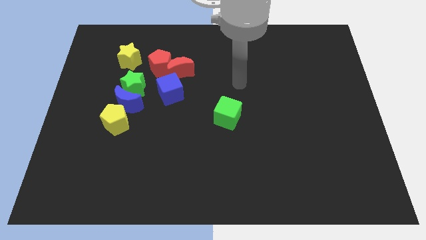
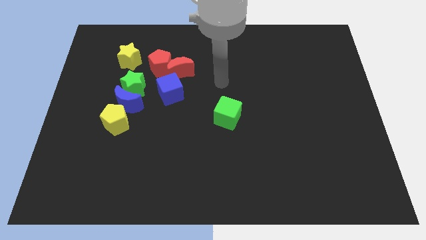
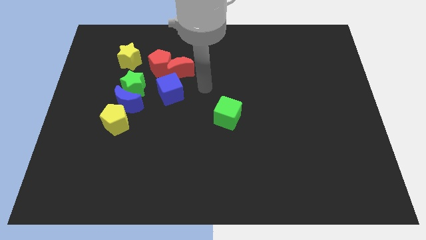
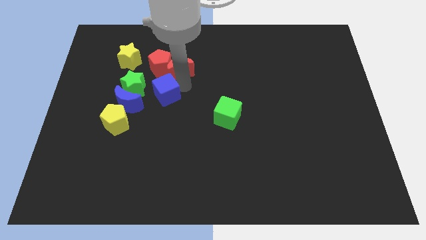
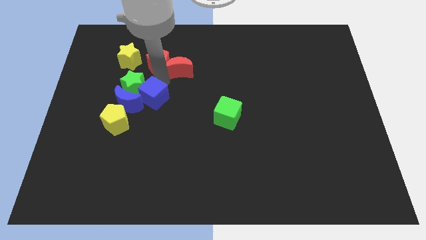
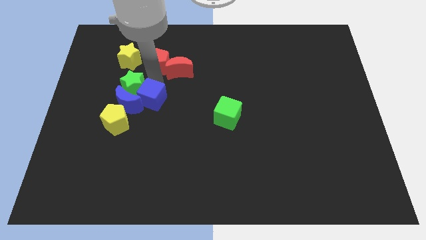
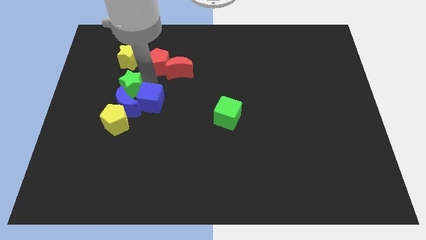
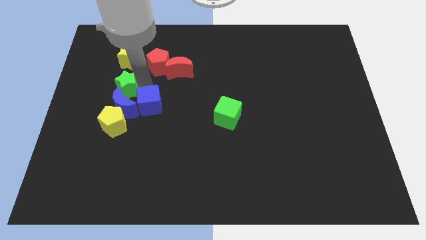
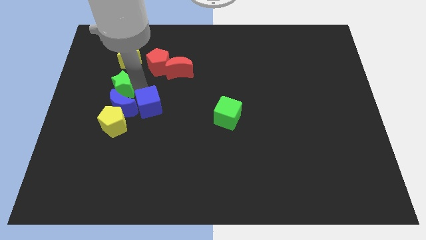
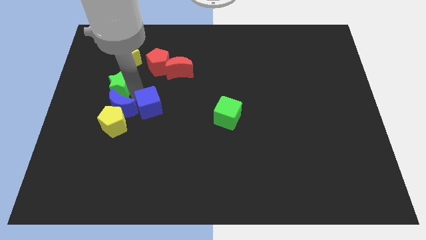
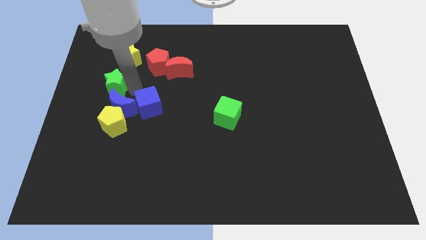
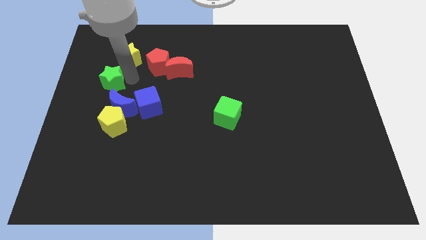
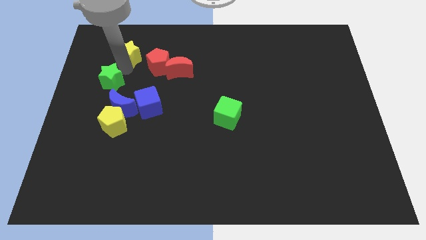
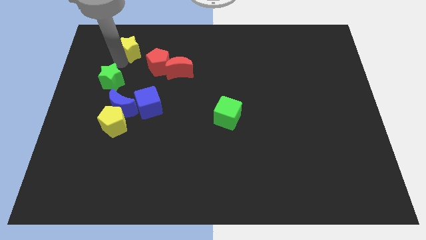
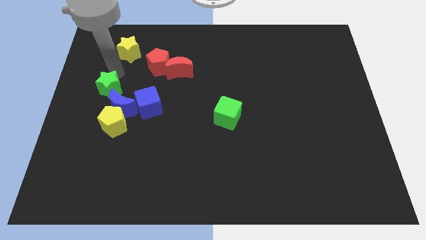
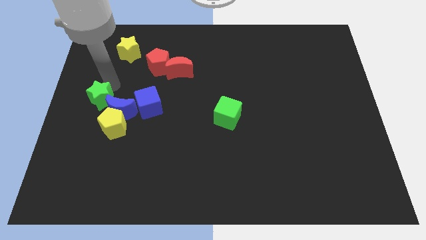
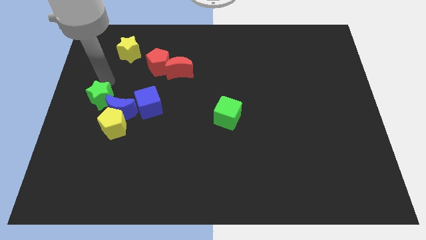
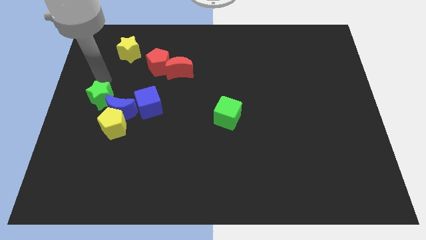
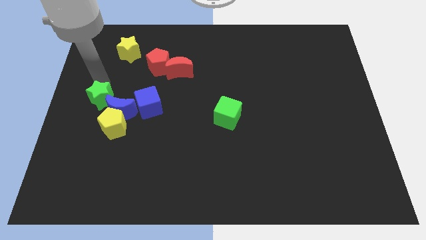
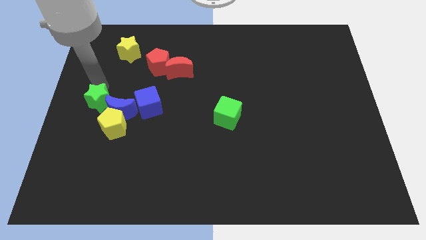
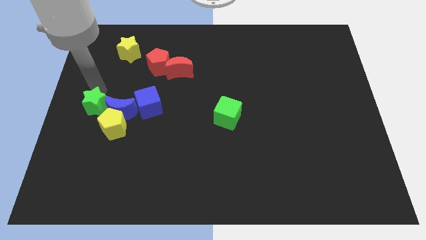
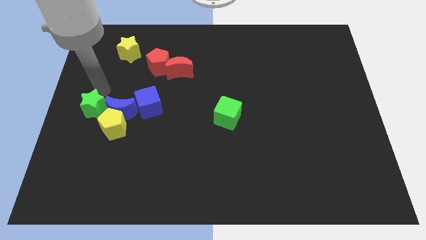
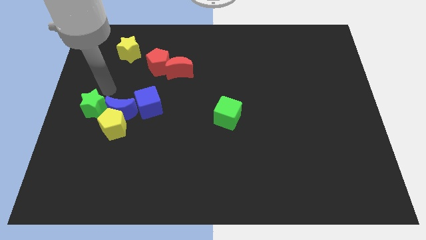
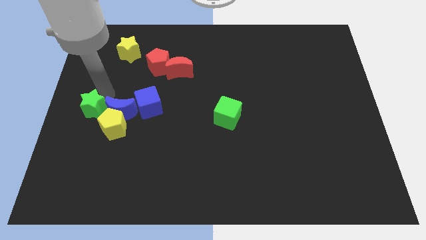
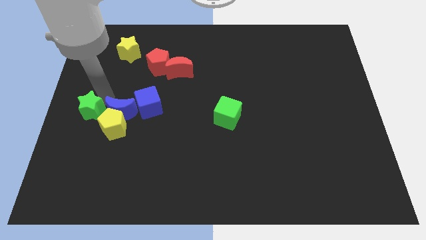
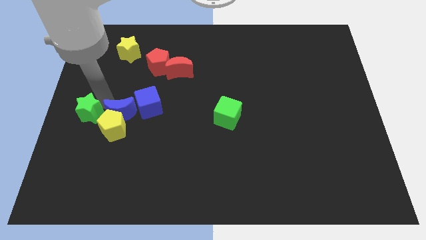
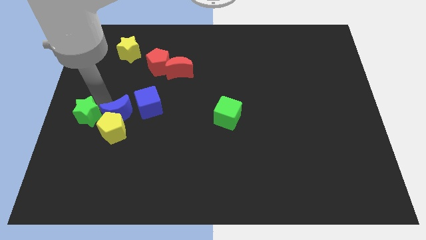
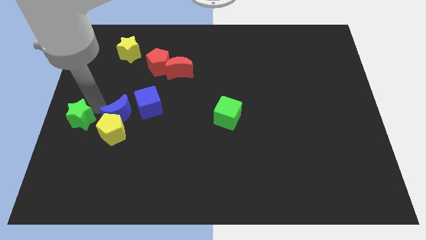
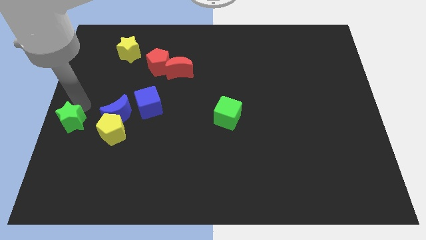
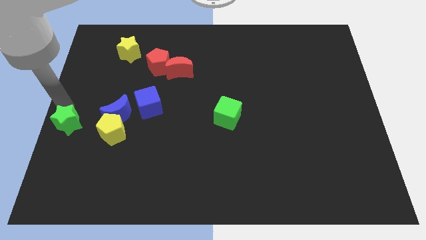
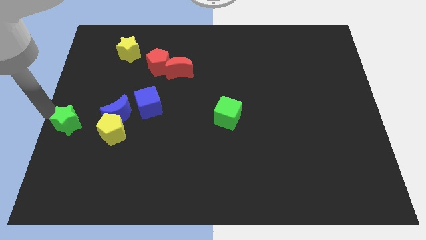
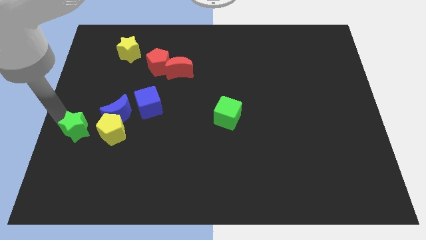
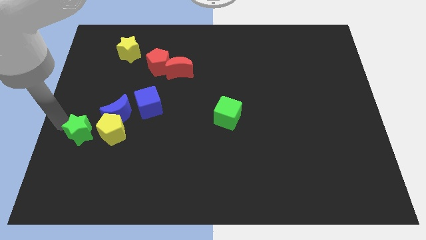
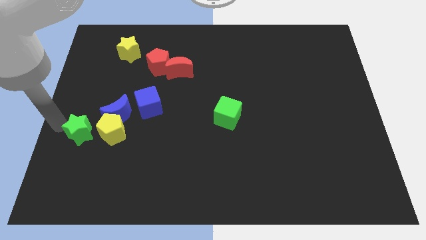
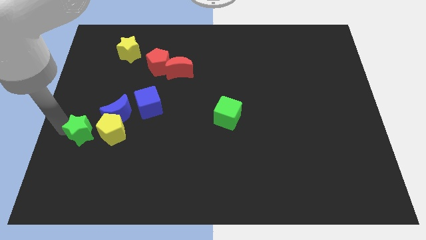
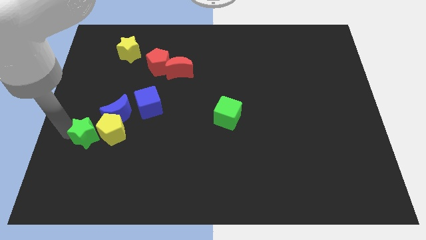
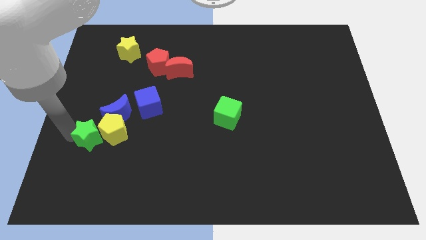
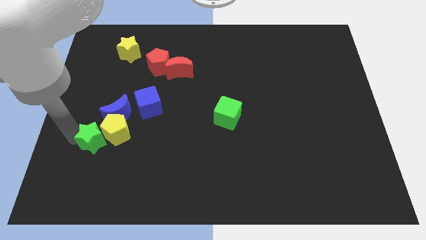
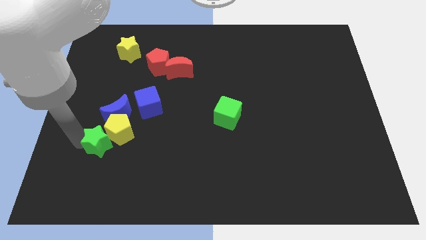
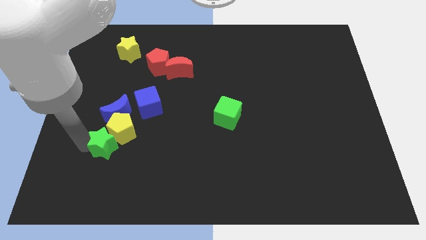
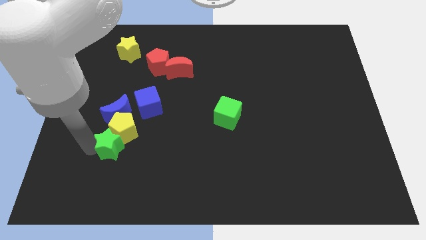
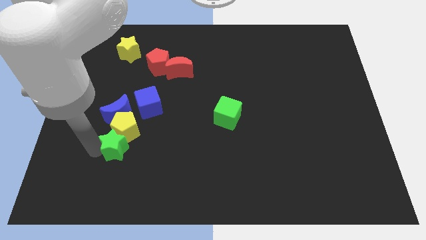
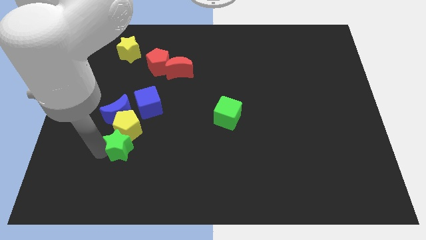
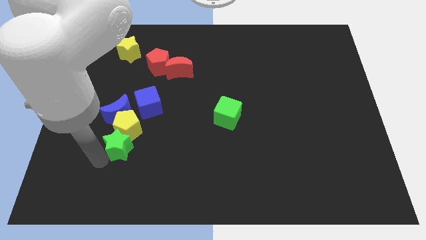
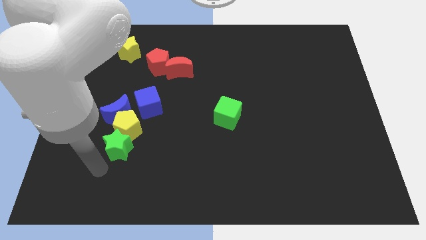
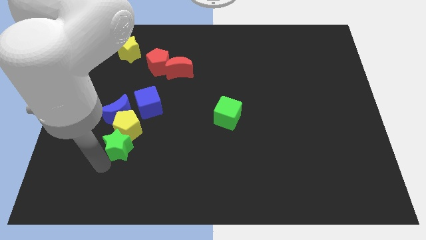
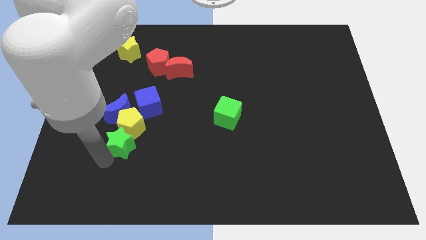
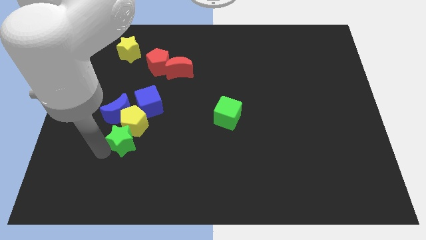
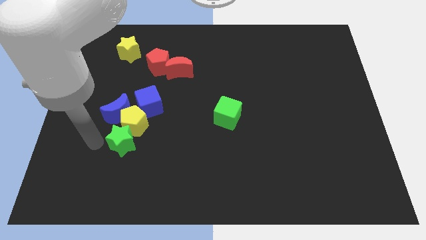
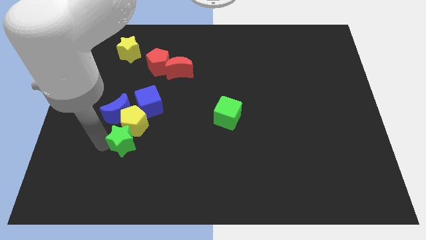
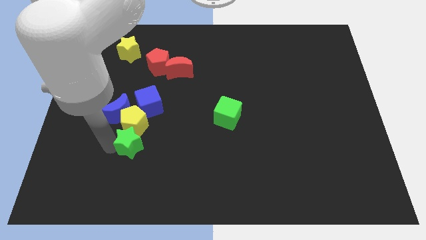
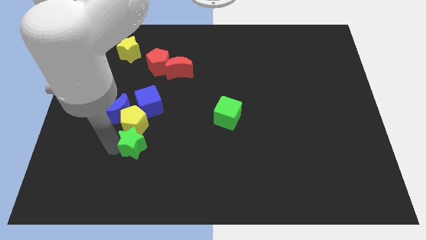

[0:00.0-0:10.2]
move the green star a bit diagonally down and right

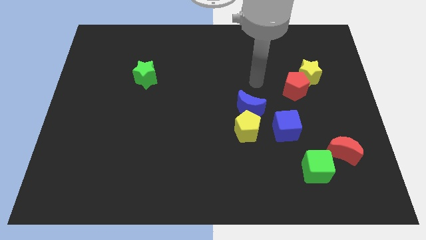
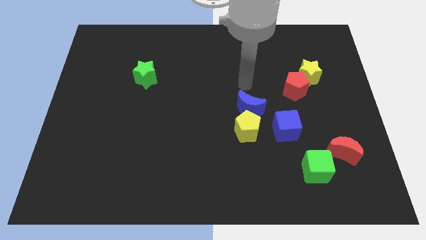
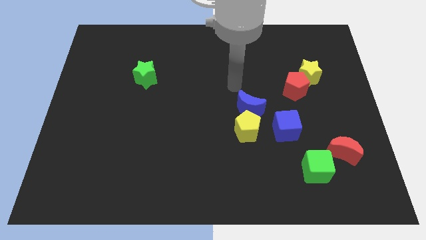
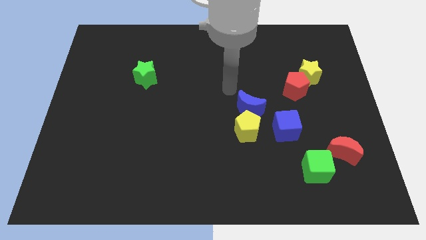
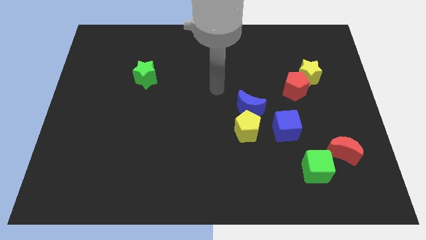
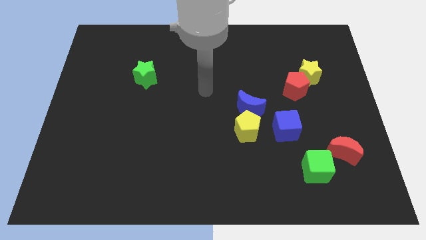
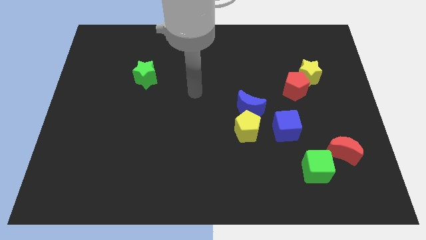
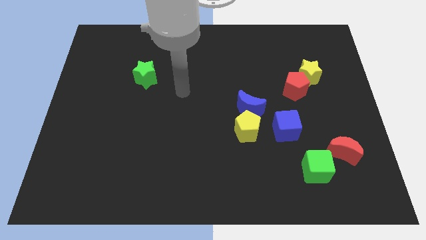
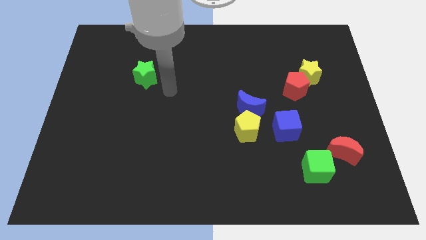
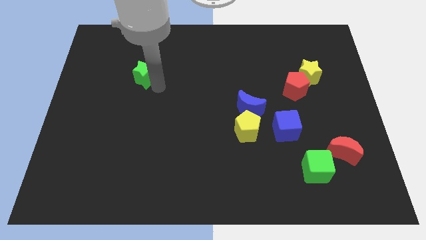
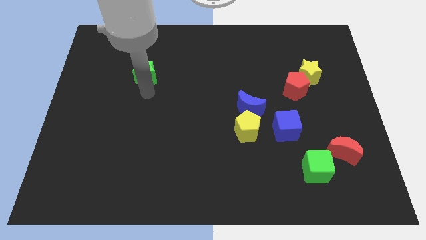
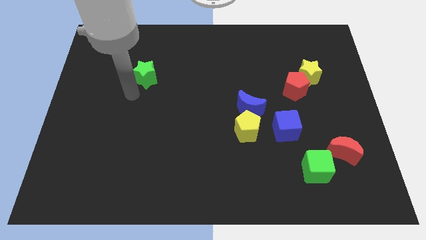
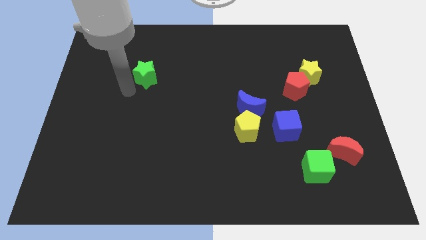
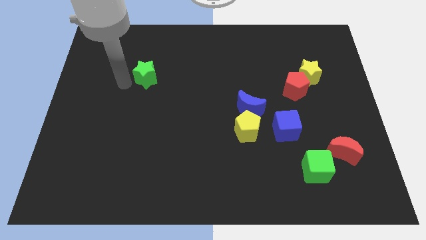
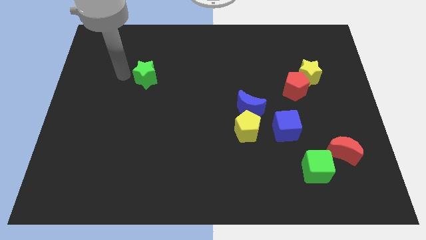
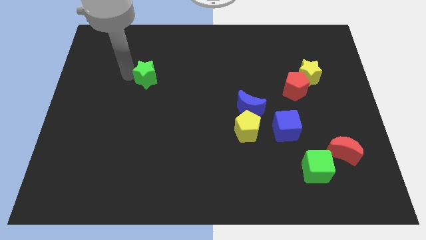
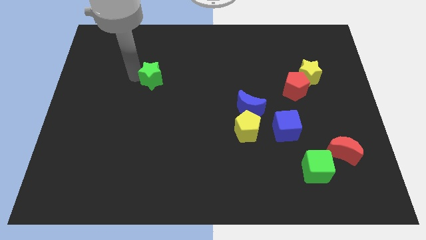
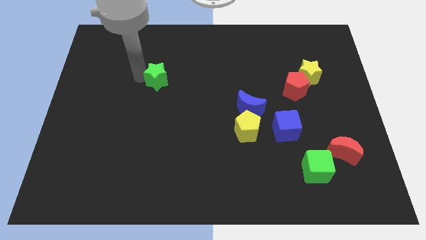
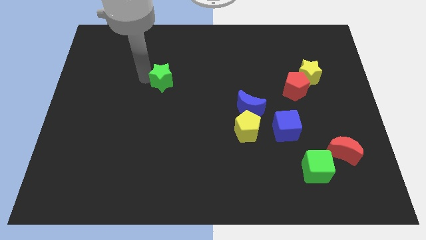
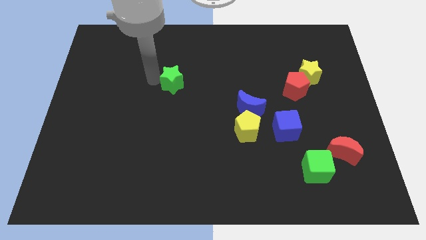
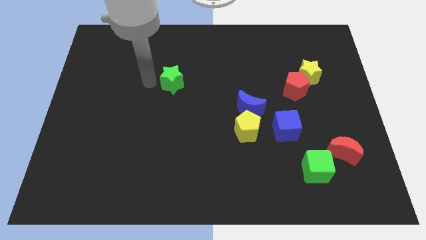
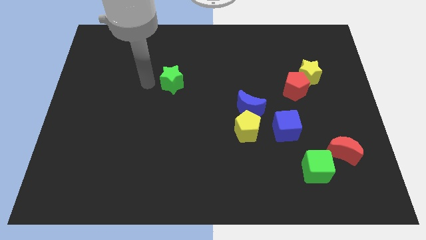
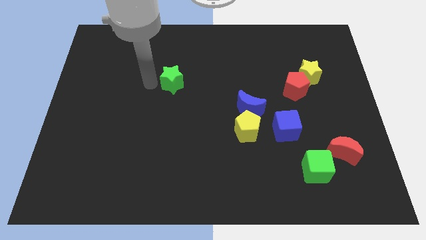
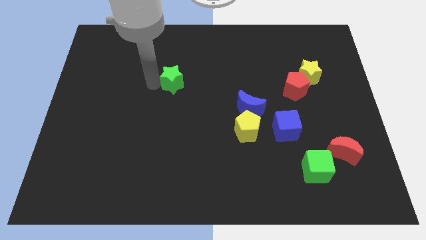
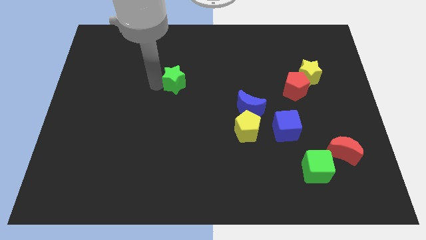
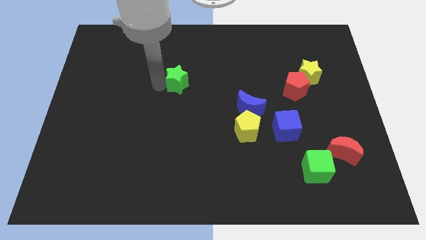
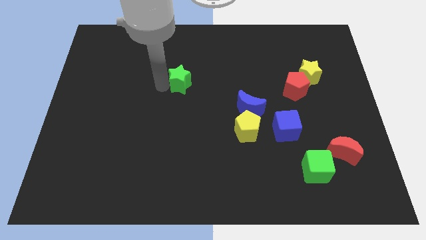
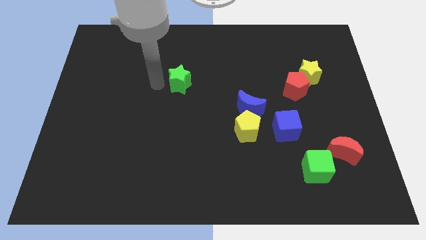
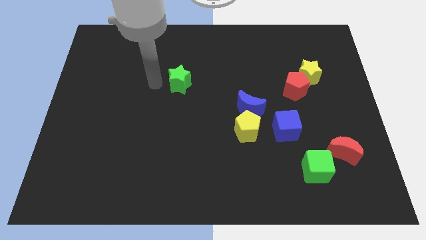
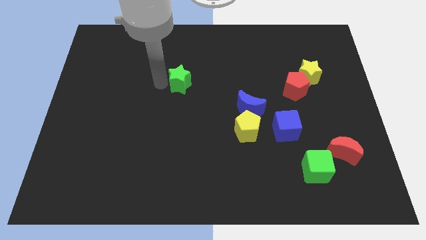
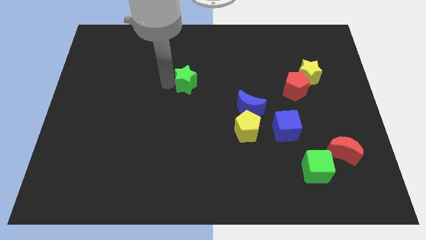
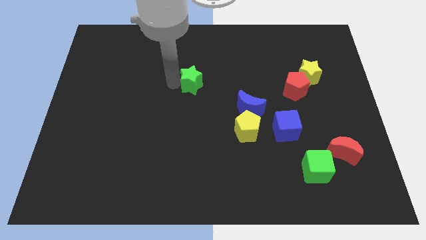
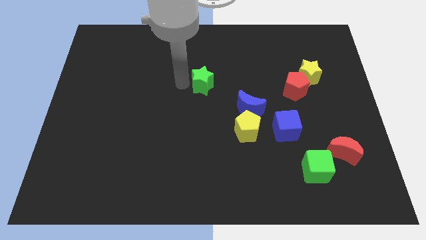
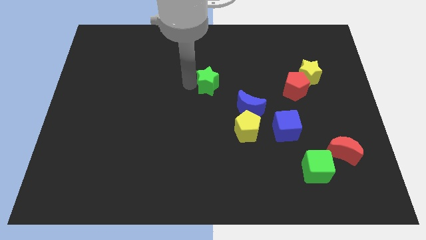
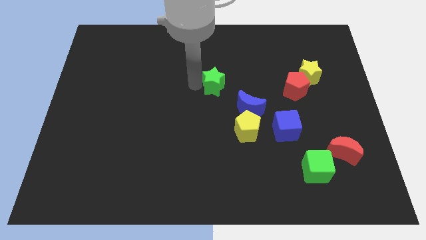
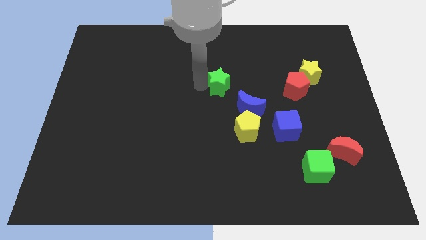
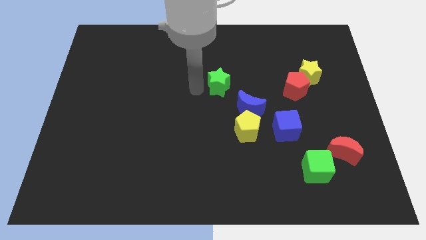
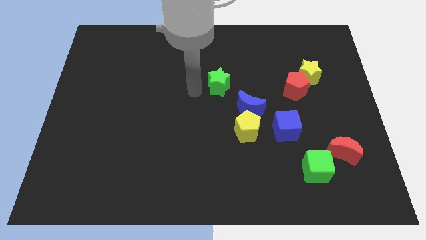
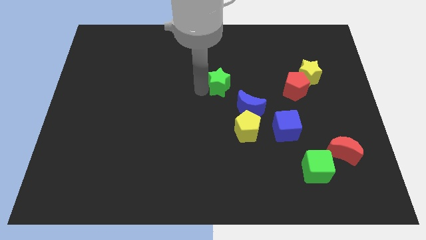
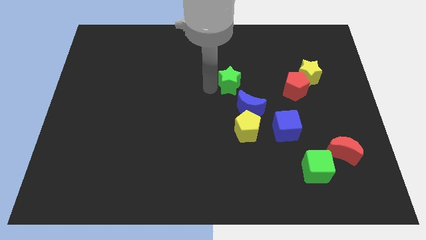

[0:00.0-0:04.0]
slide the green star to the right
